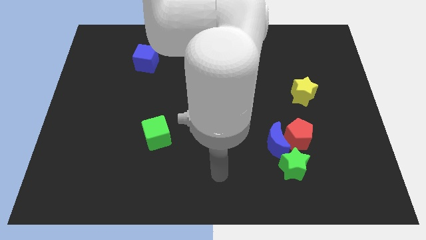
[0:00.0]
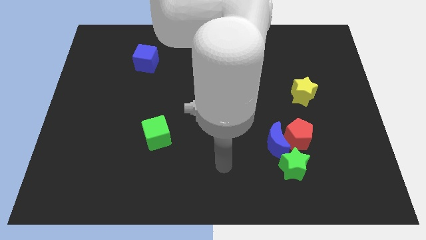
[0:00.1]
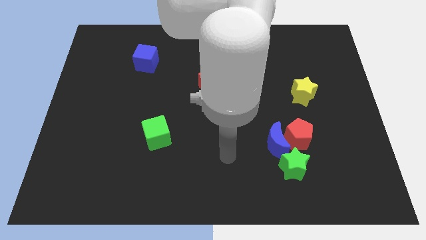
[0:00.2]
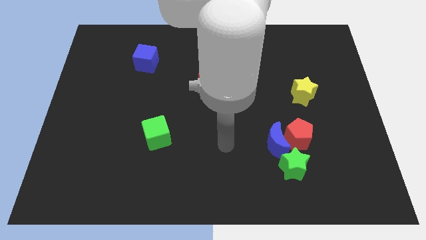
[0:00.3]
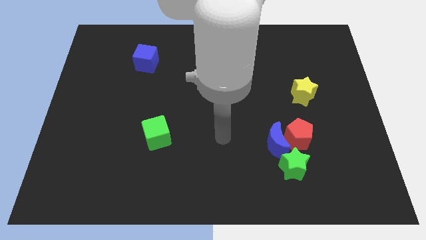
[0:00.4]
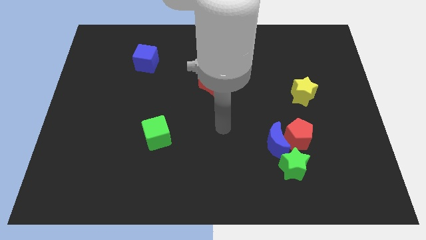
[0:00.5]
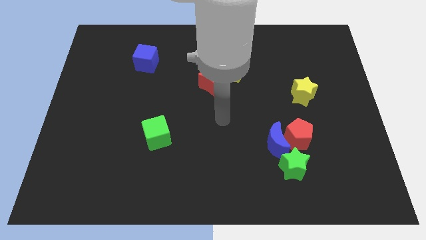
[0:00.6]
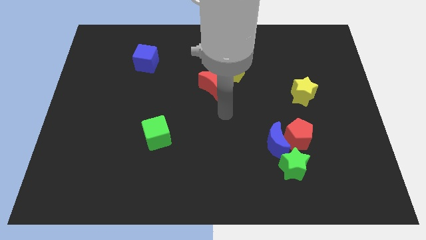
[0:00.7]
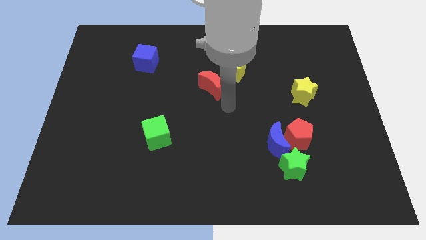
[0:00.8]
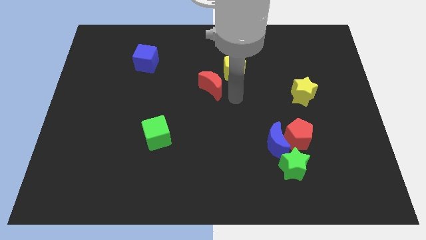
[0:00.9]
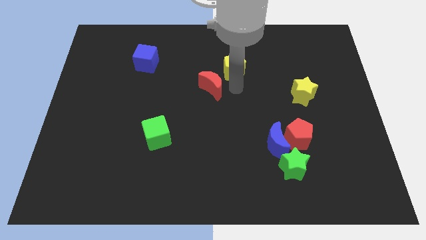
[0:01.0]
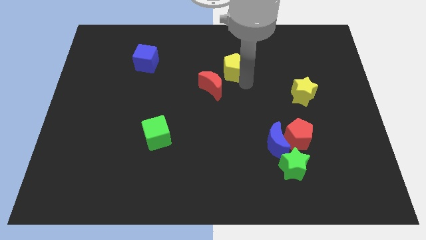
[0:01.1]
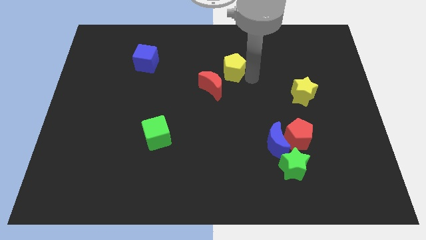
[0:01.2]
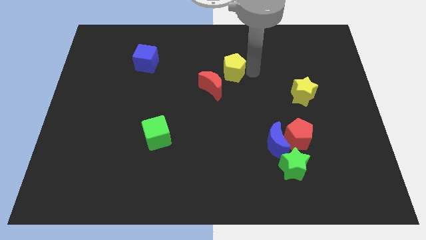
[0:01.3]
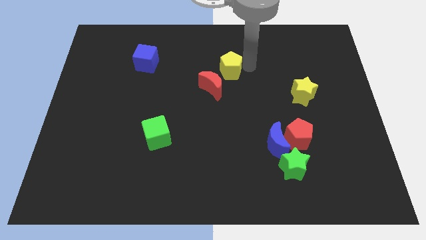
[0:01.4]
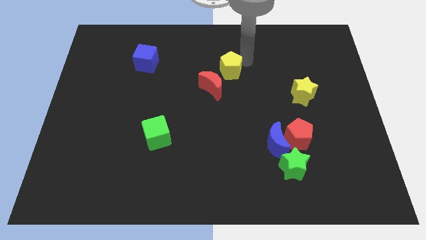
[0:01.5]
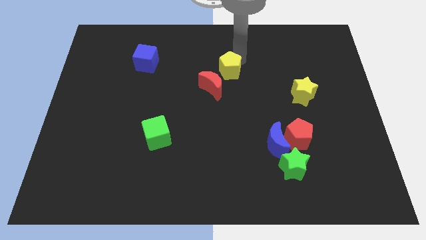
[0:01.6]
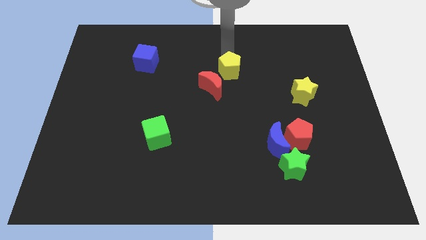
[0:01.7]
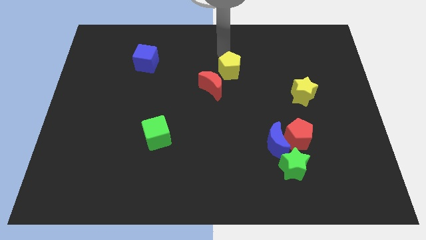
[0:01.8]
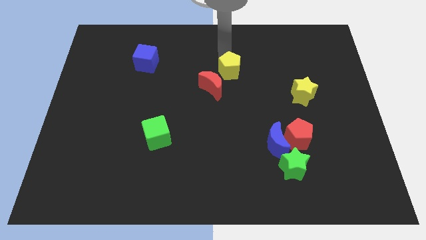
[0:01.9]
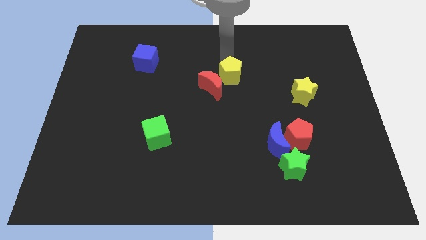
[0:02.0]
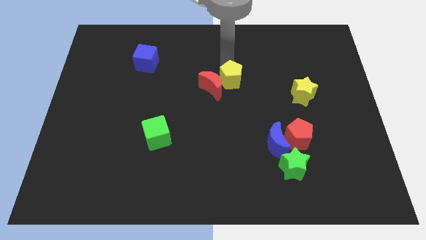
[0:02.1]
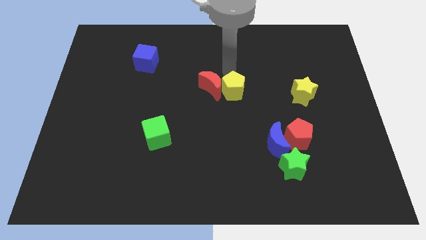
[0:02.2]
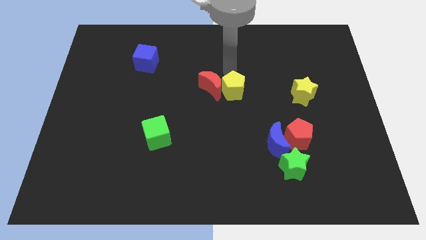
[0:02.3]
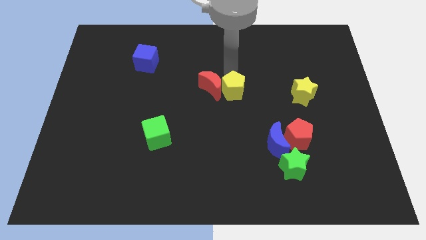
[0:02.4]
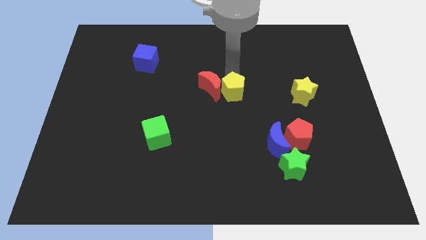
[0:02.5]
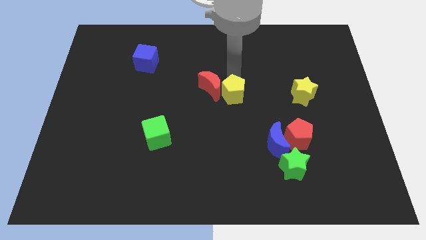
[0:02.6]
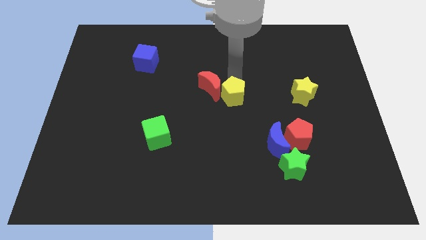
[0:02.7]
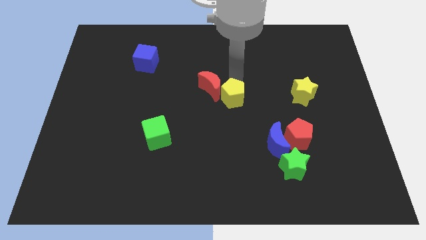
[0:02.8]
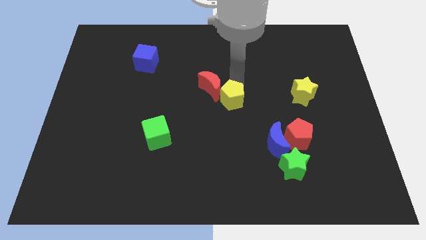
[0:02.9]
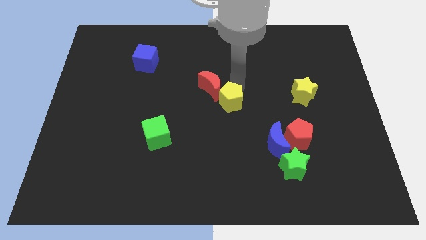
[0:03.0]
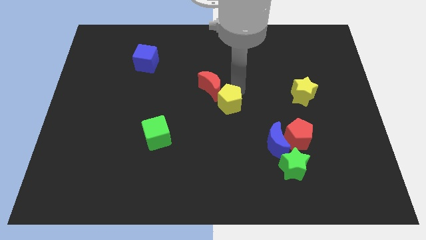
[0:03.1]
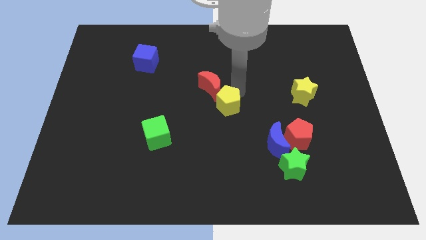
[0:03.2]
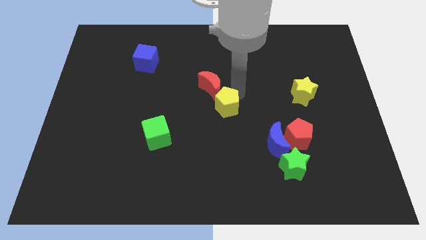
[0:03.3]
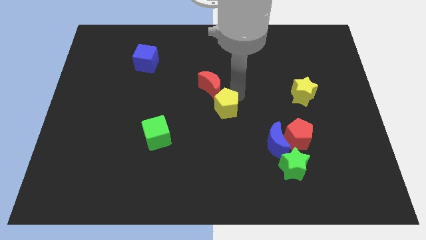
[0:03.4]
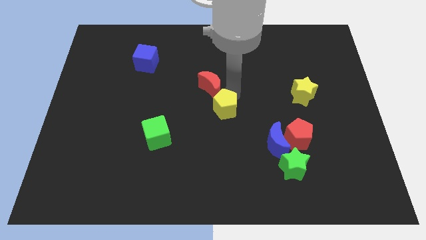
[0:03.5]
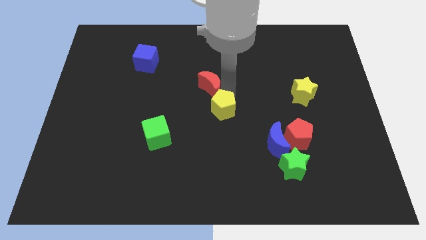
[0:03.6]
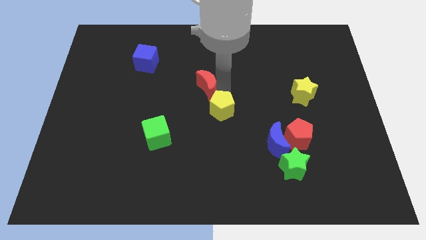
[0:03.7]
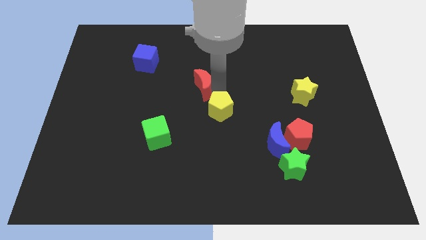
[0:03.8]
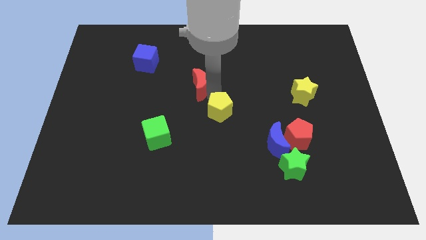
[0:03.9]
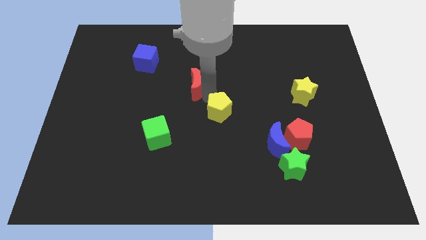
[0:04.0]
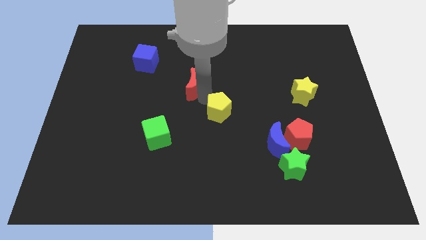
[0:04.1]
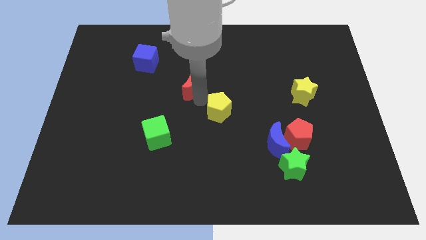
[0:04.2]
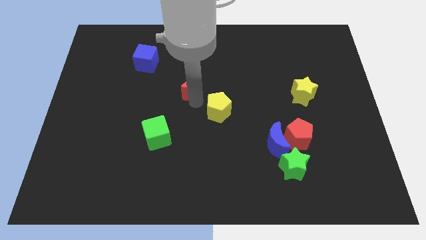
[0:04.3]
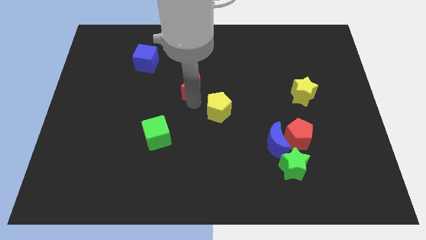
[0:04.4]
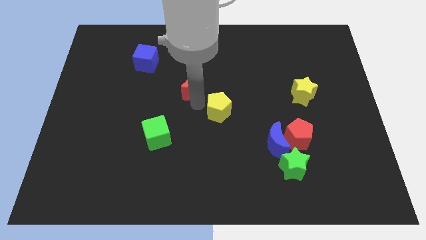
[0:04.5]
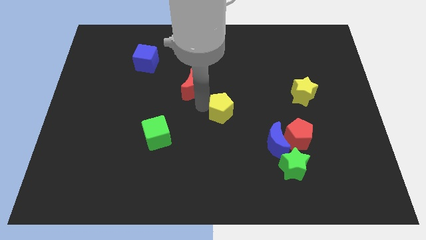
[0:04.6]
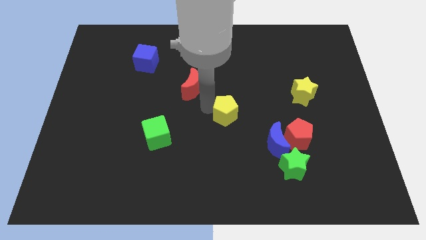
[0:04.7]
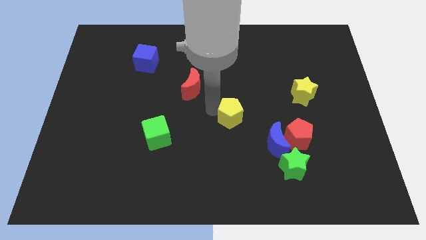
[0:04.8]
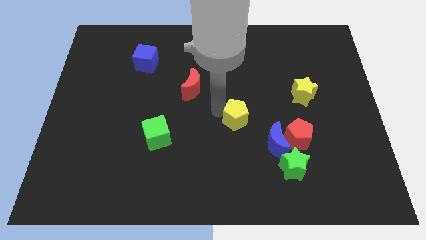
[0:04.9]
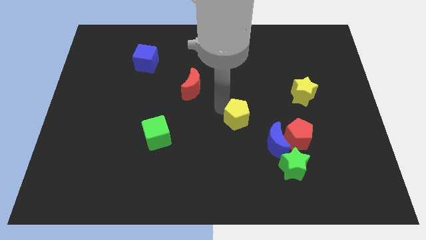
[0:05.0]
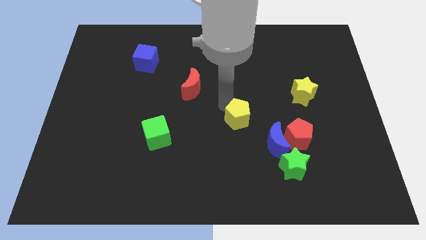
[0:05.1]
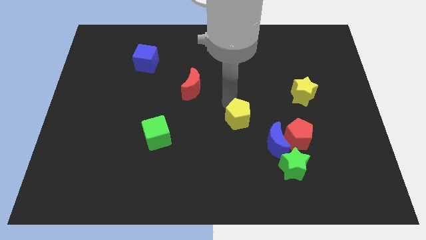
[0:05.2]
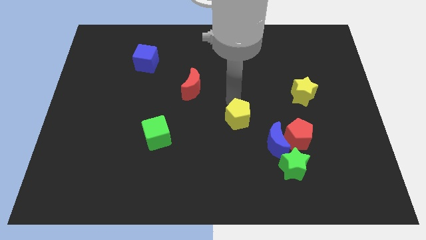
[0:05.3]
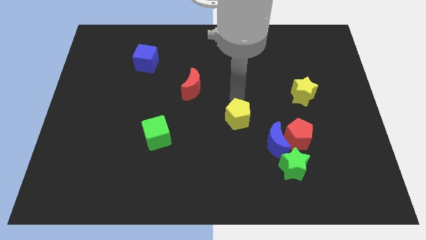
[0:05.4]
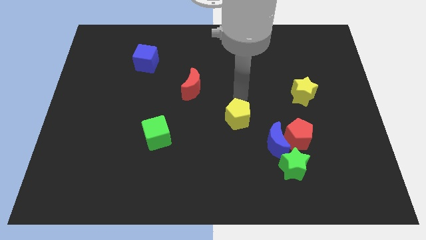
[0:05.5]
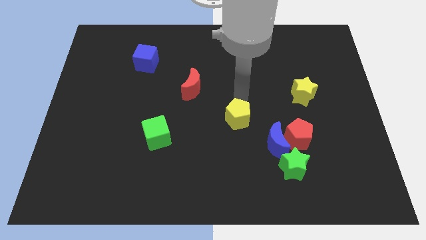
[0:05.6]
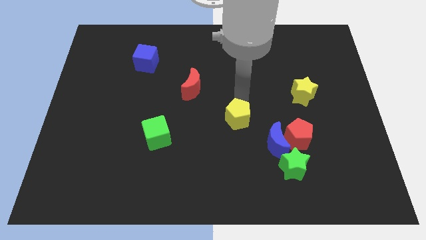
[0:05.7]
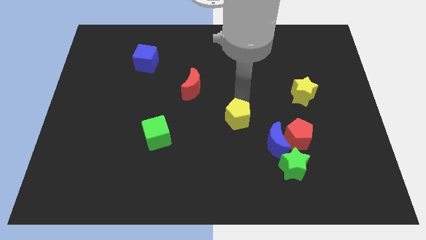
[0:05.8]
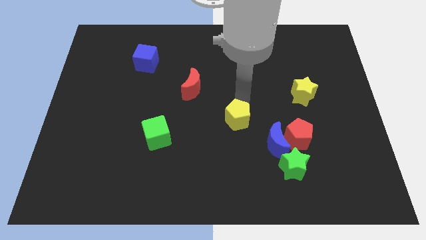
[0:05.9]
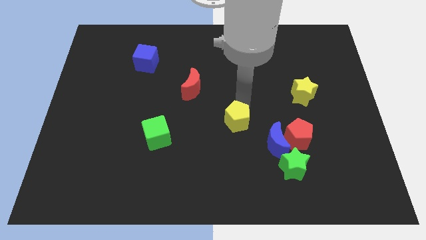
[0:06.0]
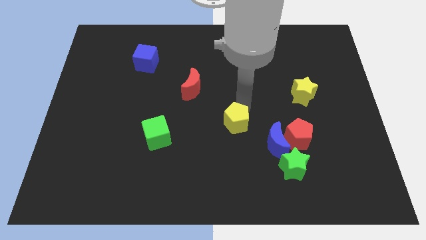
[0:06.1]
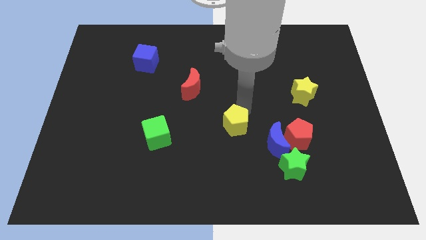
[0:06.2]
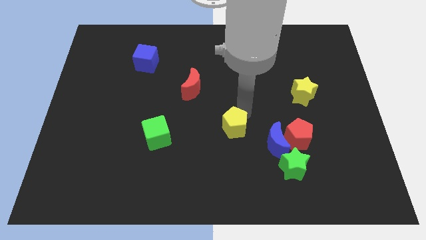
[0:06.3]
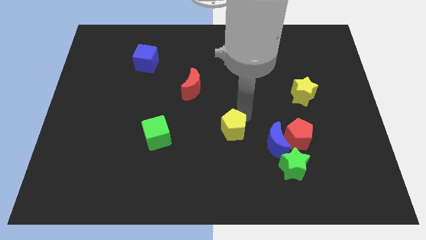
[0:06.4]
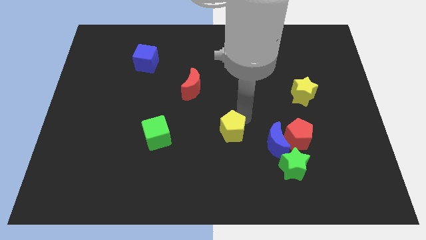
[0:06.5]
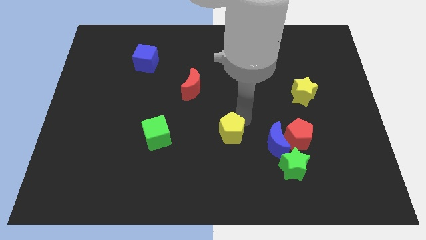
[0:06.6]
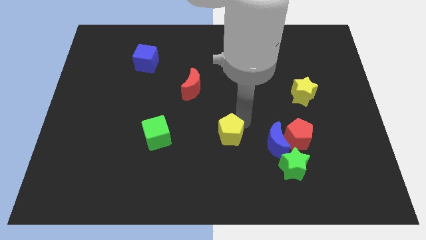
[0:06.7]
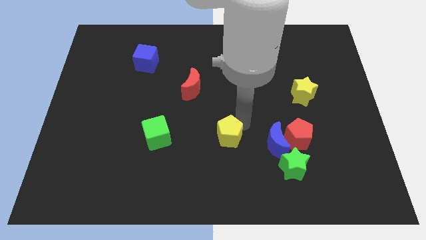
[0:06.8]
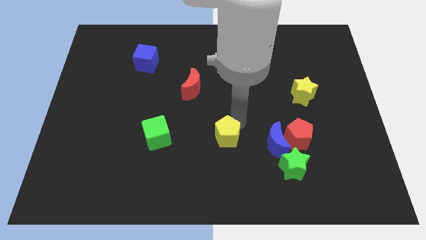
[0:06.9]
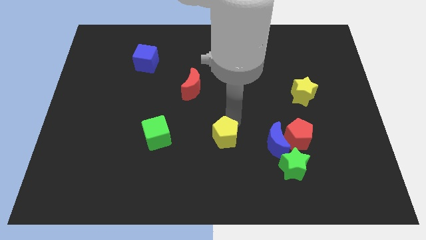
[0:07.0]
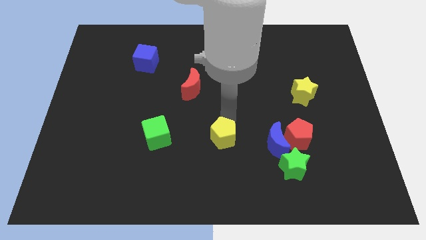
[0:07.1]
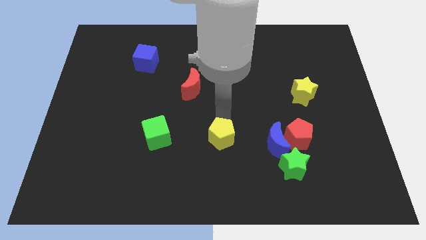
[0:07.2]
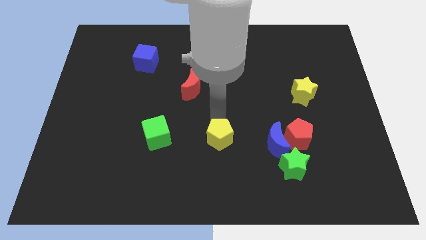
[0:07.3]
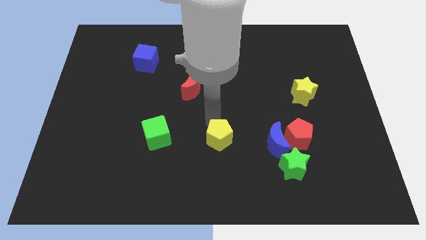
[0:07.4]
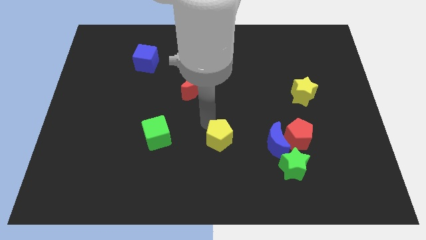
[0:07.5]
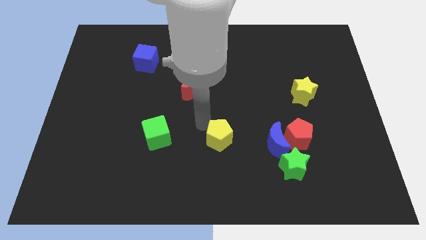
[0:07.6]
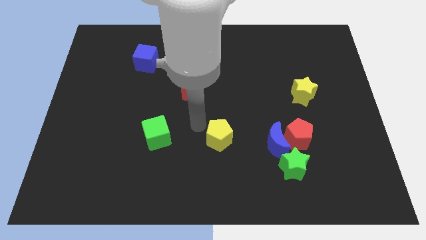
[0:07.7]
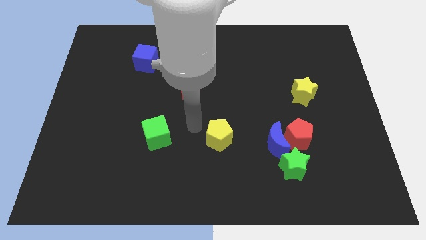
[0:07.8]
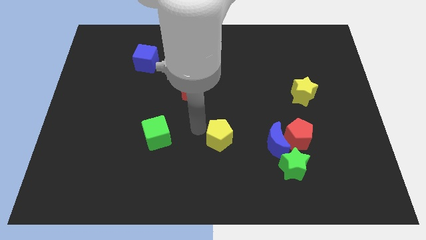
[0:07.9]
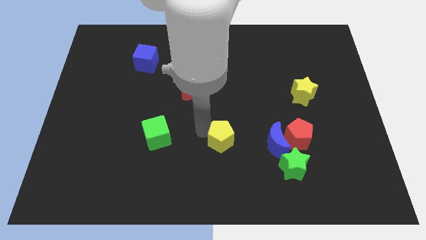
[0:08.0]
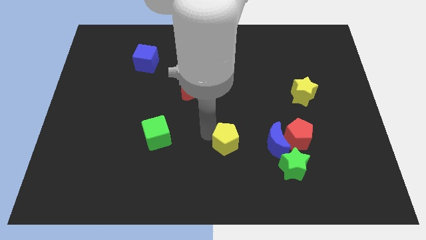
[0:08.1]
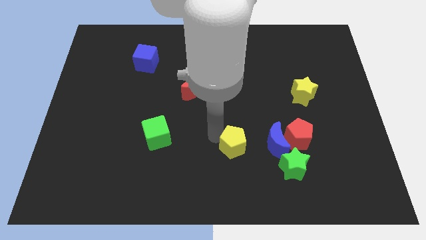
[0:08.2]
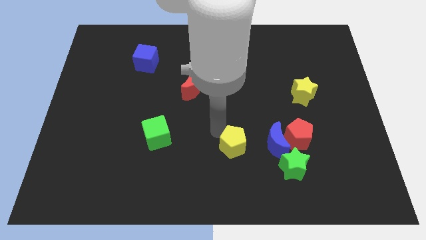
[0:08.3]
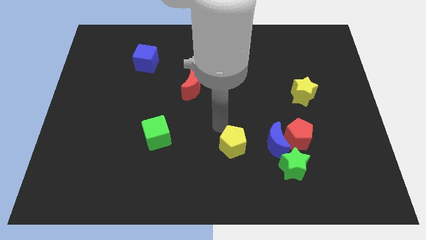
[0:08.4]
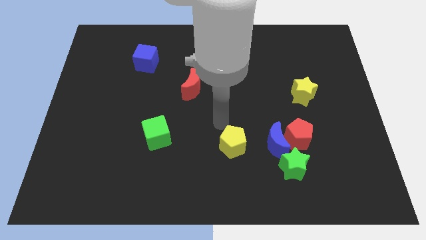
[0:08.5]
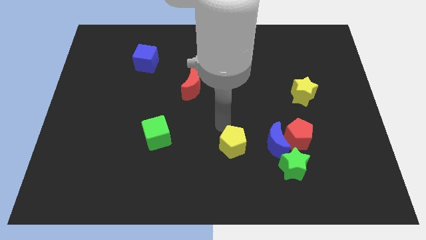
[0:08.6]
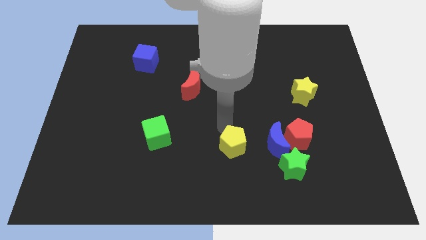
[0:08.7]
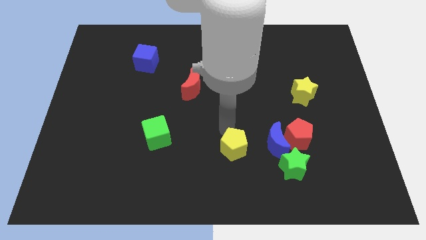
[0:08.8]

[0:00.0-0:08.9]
push the yellow pentagon to the left of the green star
